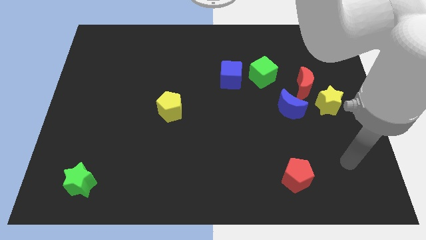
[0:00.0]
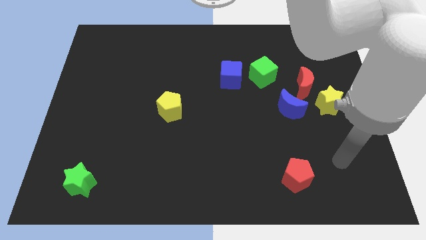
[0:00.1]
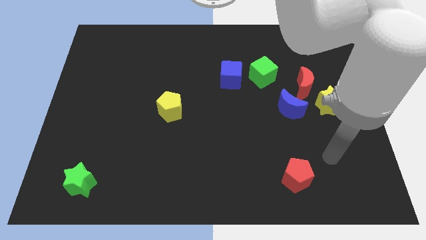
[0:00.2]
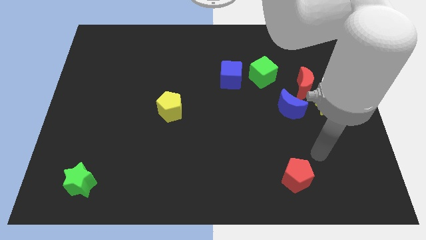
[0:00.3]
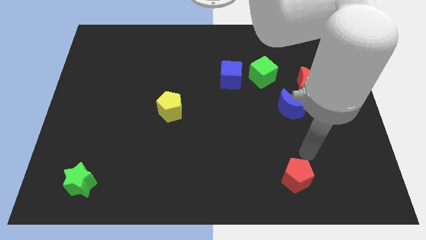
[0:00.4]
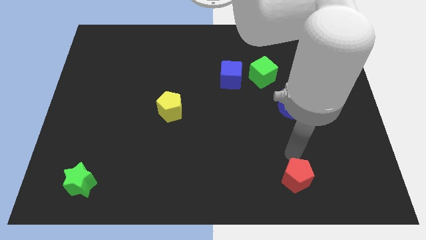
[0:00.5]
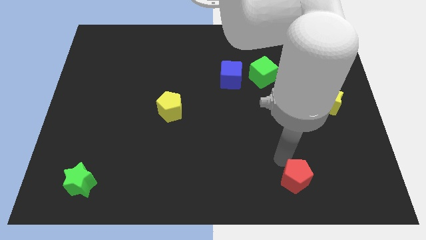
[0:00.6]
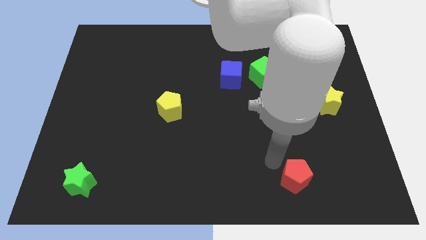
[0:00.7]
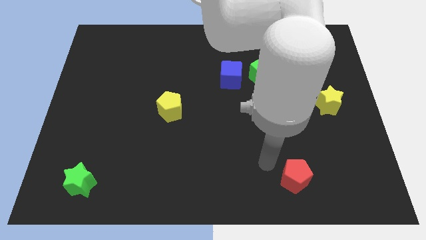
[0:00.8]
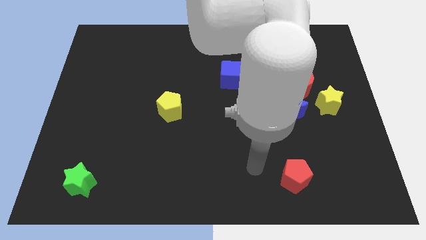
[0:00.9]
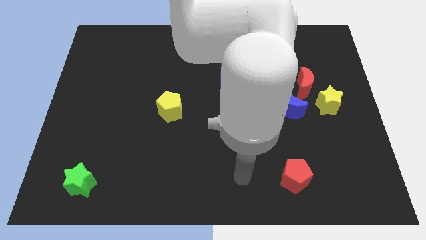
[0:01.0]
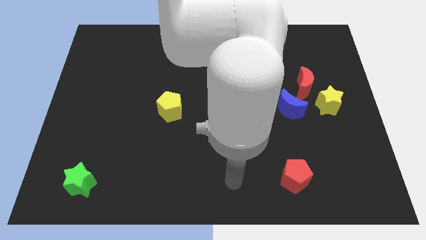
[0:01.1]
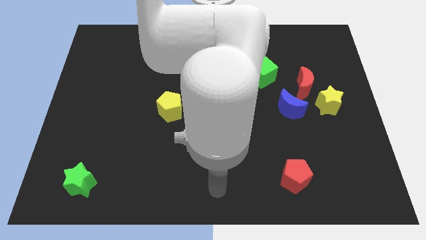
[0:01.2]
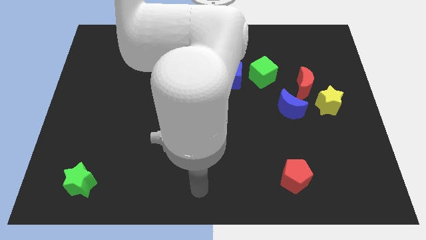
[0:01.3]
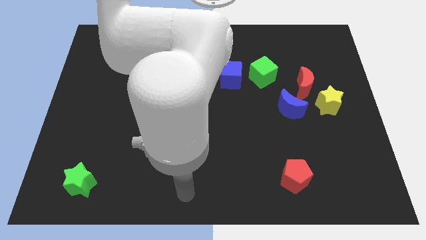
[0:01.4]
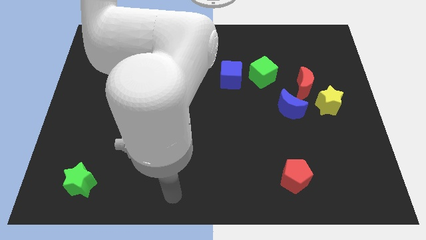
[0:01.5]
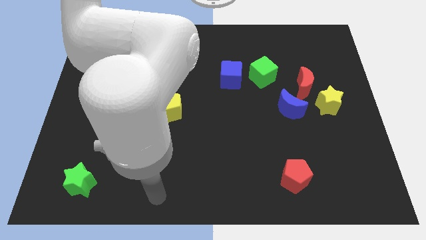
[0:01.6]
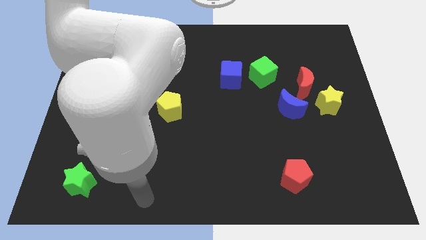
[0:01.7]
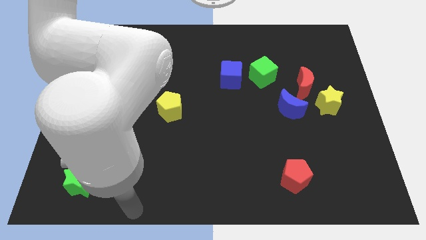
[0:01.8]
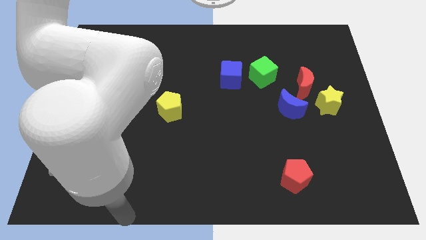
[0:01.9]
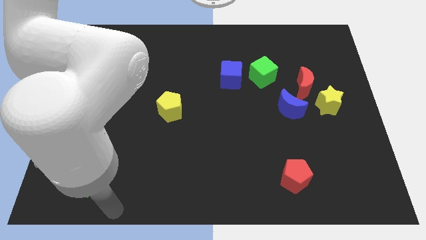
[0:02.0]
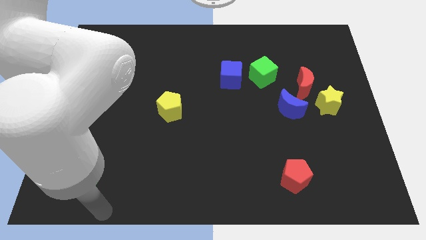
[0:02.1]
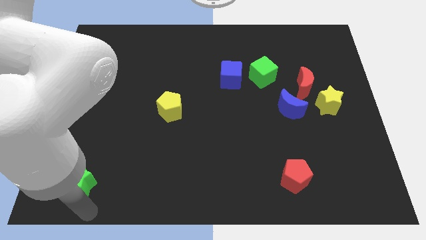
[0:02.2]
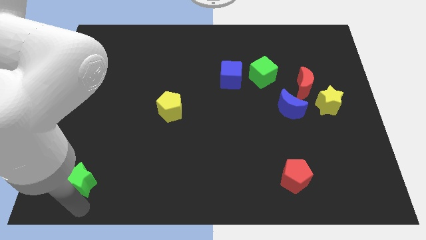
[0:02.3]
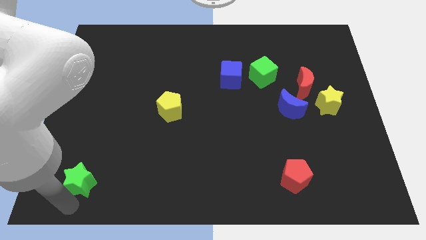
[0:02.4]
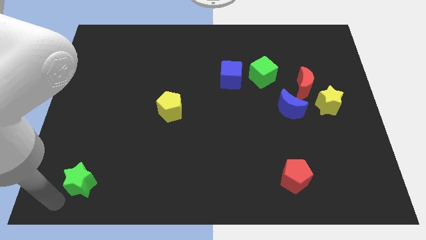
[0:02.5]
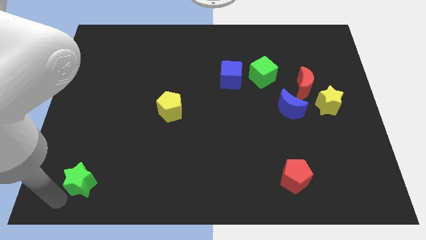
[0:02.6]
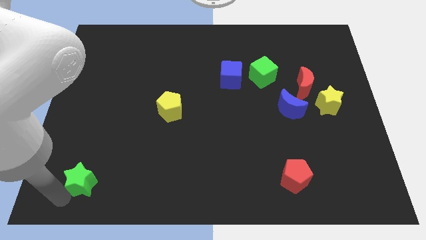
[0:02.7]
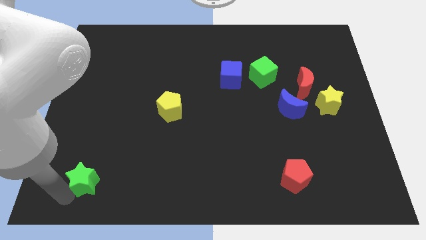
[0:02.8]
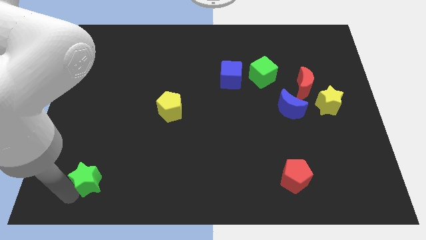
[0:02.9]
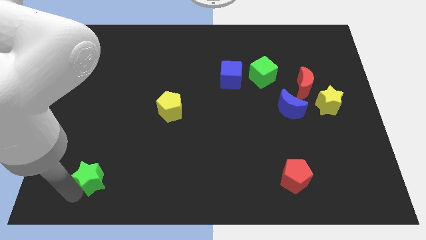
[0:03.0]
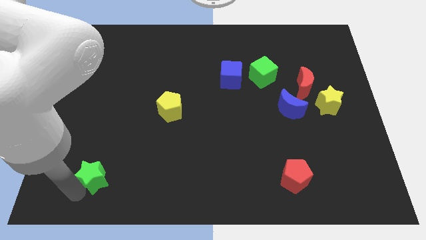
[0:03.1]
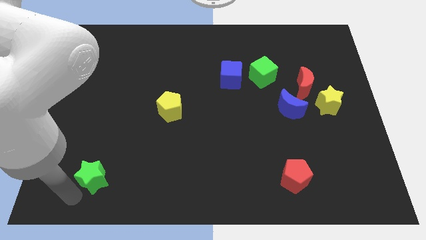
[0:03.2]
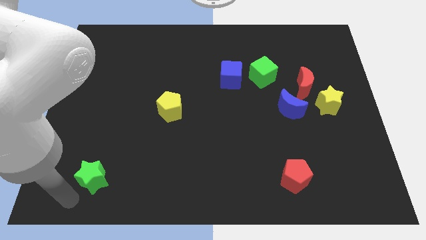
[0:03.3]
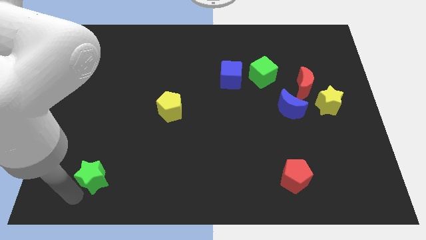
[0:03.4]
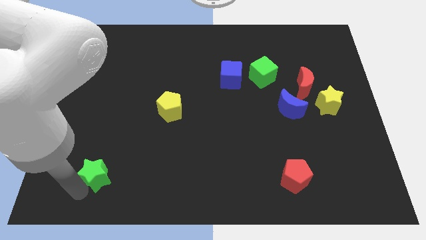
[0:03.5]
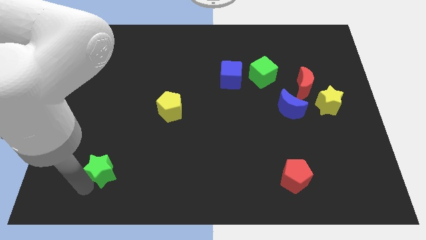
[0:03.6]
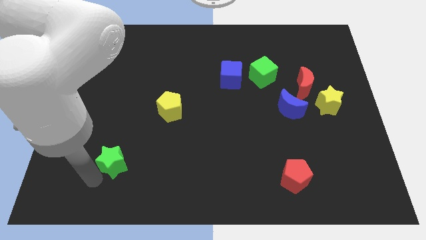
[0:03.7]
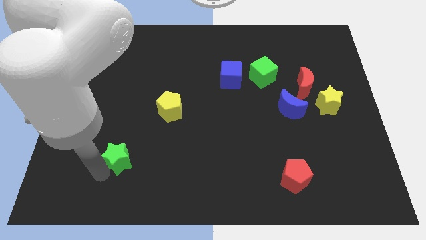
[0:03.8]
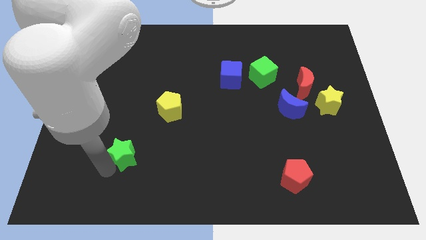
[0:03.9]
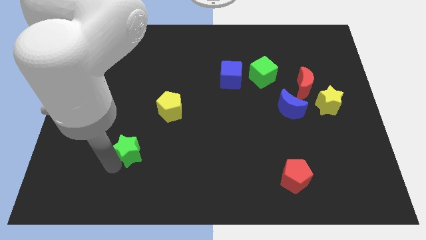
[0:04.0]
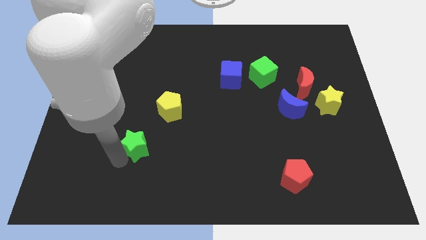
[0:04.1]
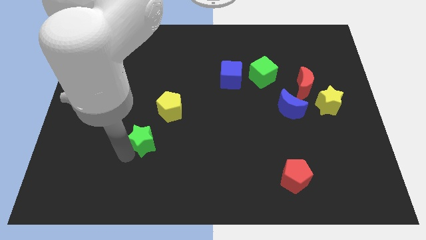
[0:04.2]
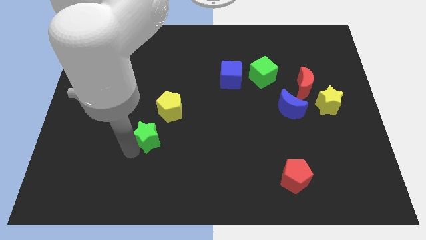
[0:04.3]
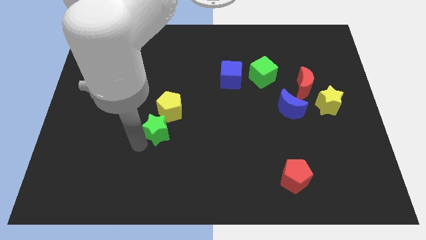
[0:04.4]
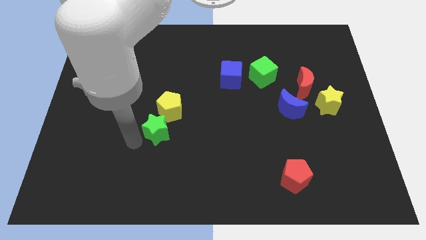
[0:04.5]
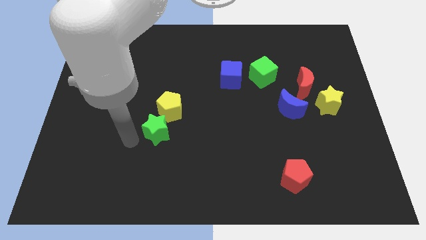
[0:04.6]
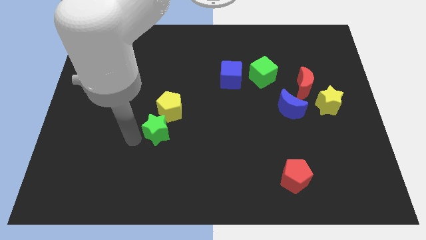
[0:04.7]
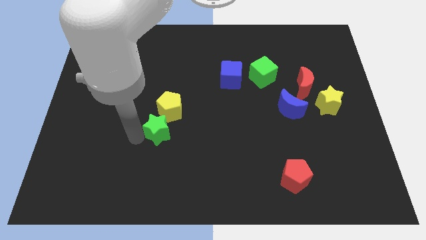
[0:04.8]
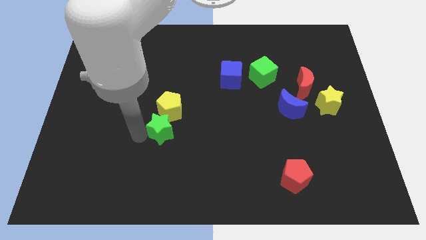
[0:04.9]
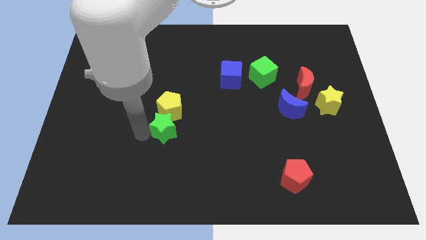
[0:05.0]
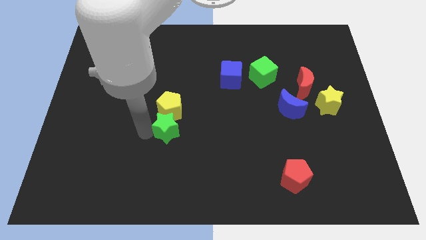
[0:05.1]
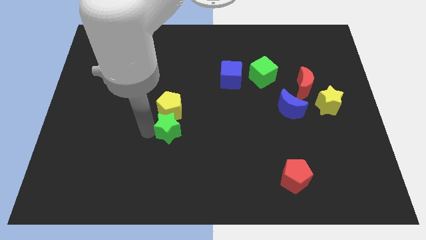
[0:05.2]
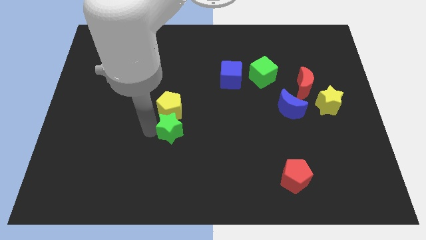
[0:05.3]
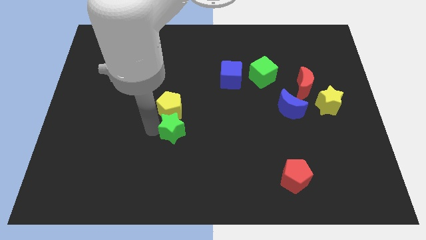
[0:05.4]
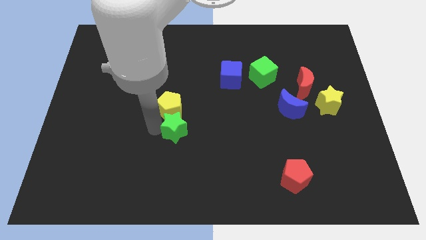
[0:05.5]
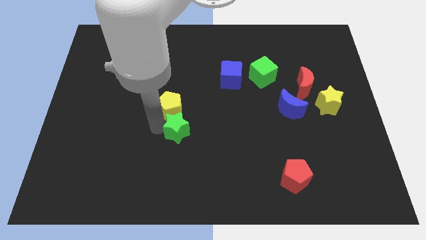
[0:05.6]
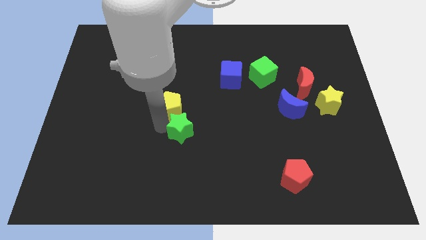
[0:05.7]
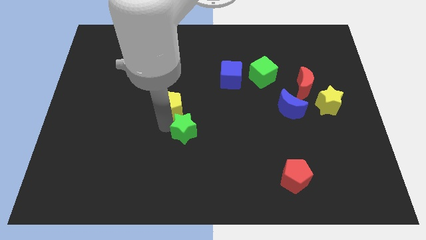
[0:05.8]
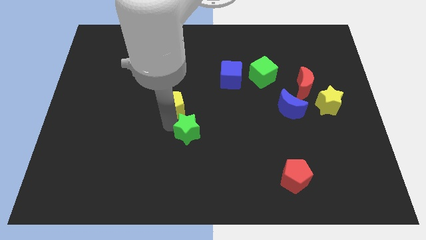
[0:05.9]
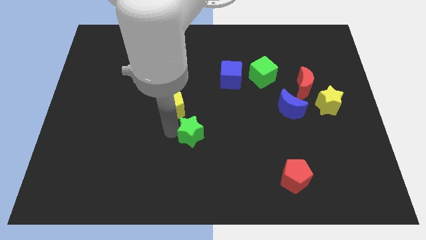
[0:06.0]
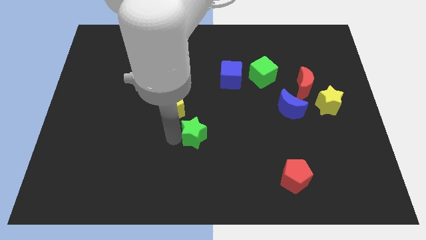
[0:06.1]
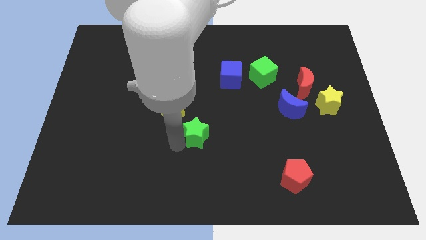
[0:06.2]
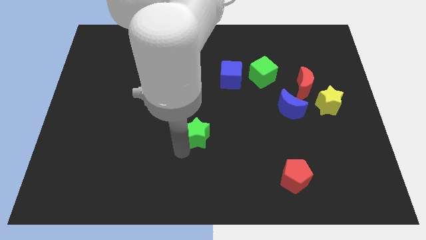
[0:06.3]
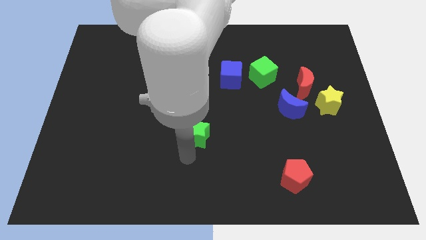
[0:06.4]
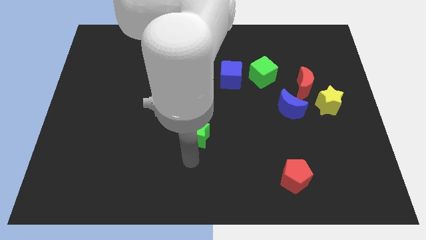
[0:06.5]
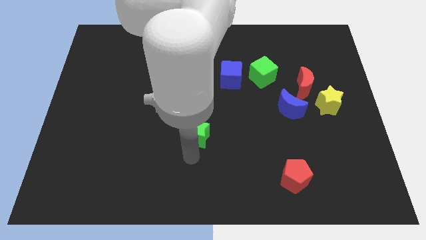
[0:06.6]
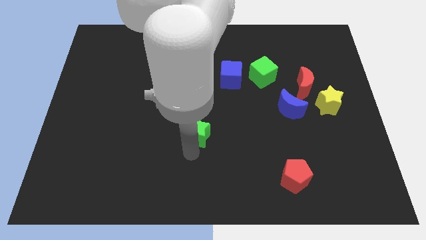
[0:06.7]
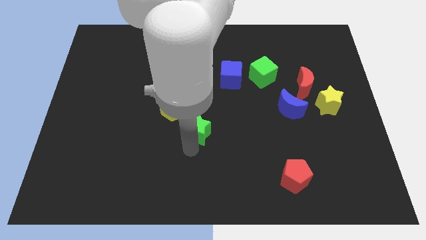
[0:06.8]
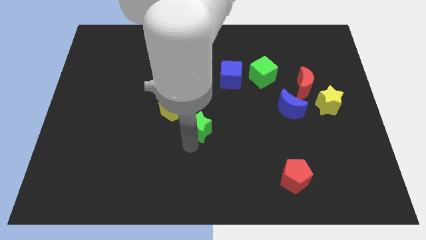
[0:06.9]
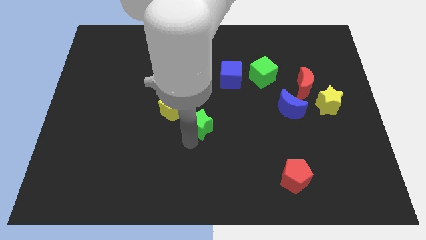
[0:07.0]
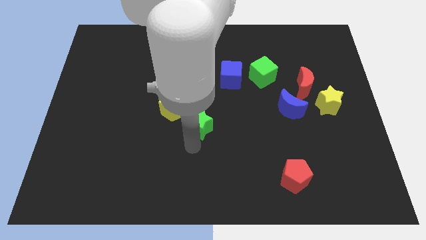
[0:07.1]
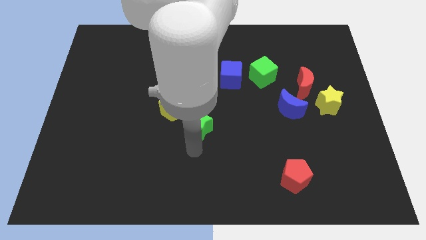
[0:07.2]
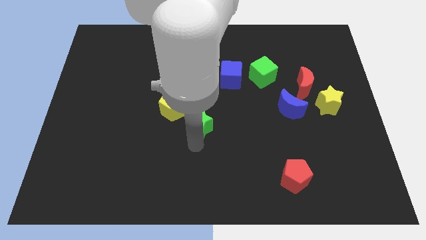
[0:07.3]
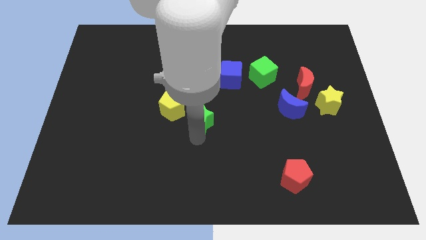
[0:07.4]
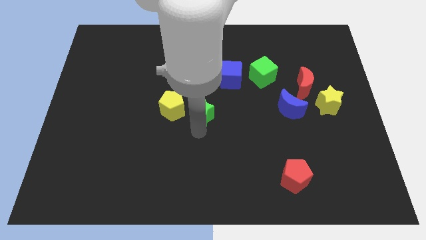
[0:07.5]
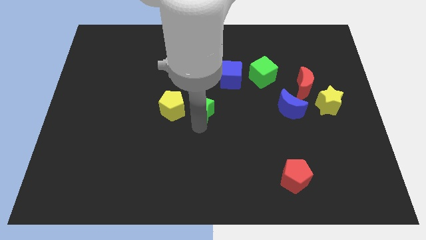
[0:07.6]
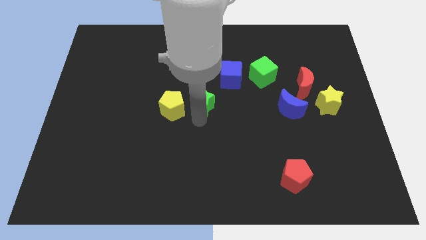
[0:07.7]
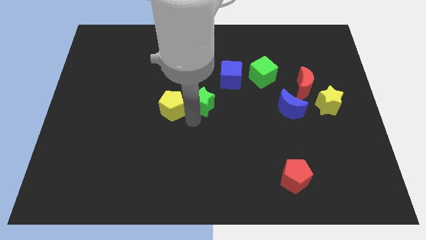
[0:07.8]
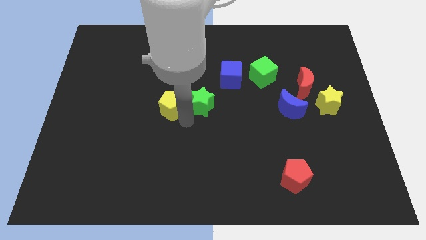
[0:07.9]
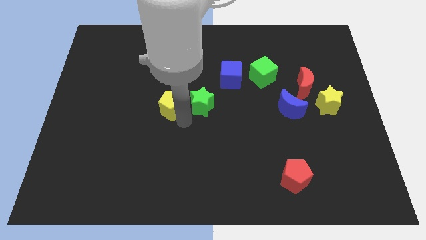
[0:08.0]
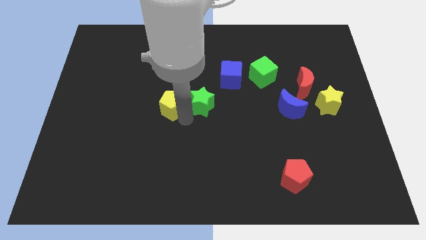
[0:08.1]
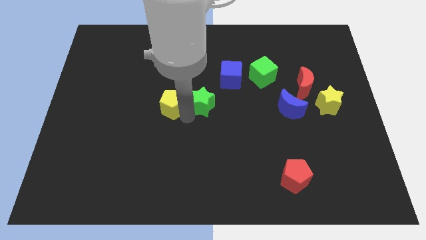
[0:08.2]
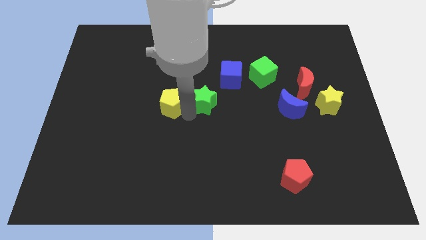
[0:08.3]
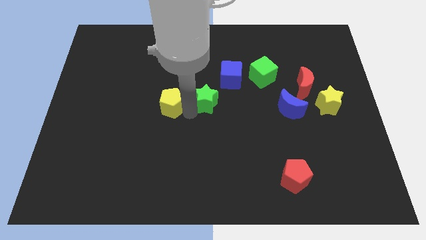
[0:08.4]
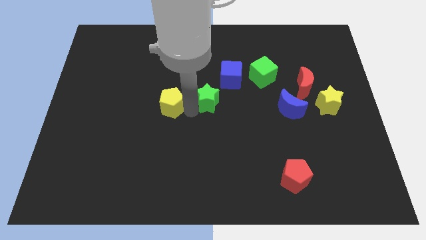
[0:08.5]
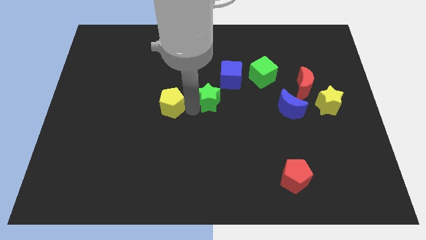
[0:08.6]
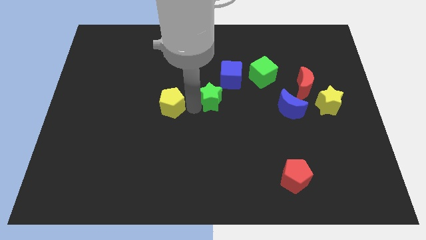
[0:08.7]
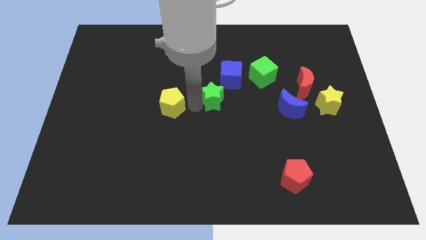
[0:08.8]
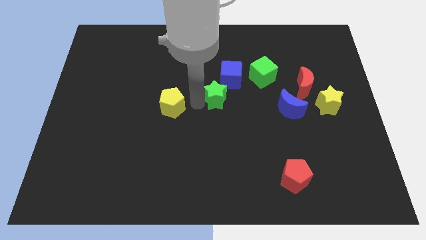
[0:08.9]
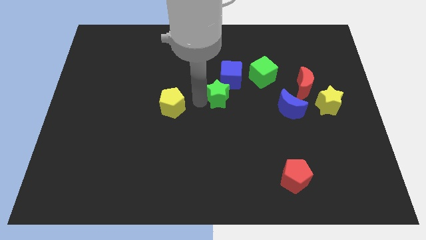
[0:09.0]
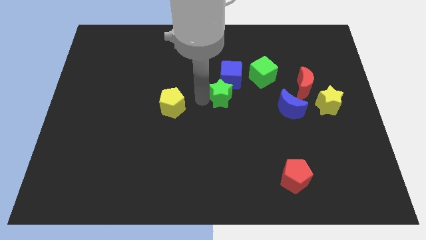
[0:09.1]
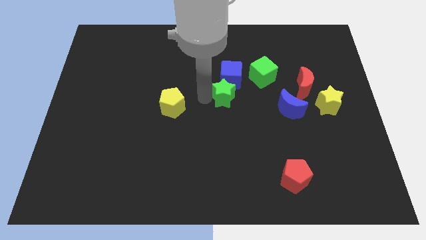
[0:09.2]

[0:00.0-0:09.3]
move the green star next to the blue cube
